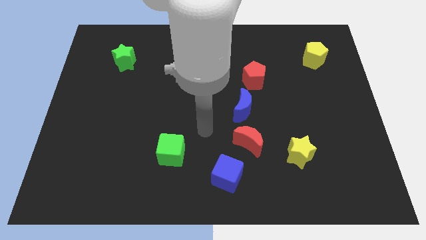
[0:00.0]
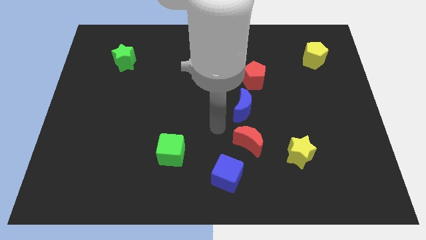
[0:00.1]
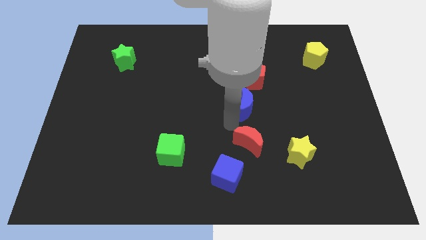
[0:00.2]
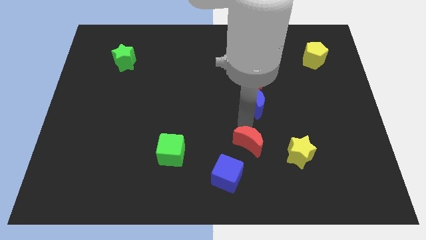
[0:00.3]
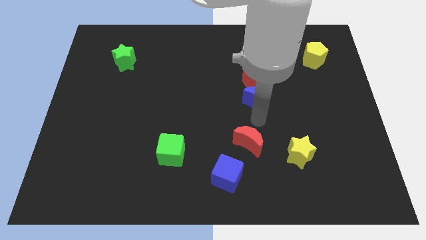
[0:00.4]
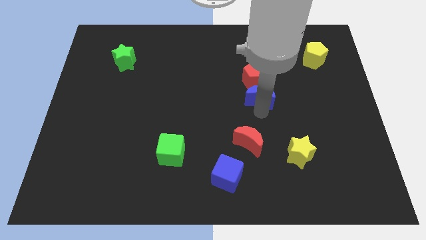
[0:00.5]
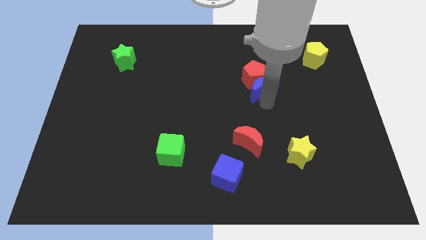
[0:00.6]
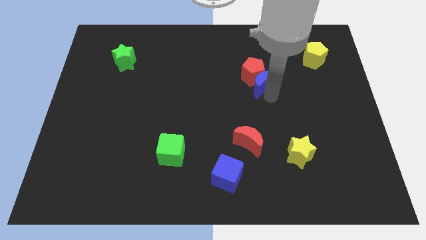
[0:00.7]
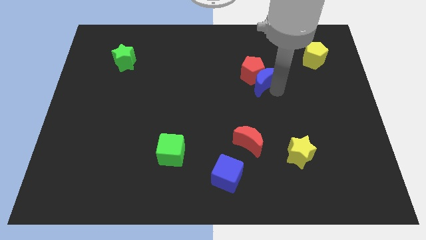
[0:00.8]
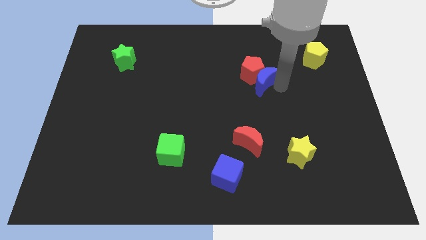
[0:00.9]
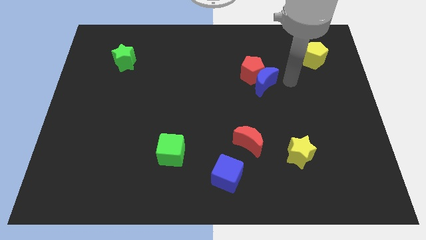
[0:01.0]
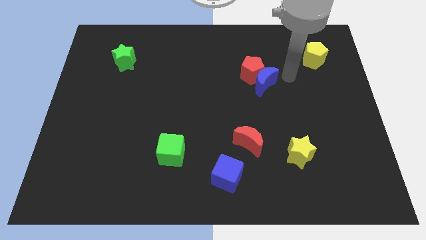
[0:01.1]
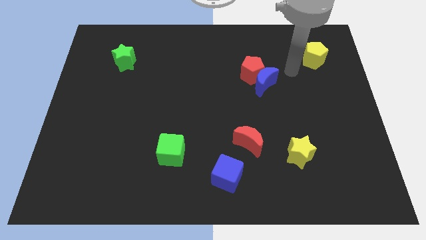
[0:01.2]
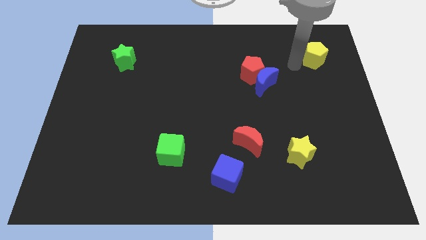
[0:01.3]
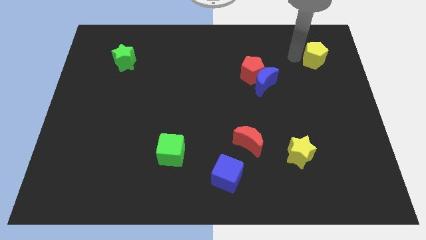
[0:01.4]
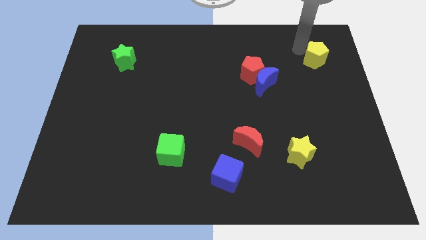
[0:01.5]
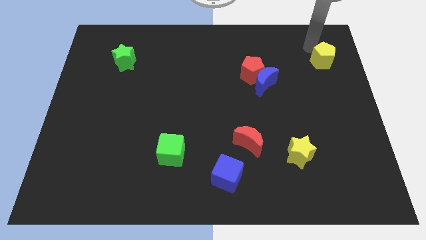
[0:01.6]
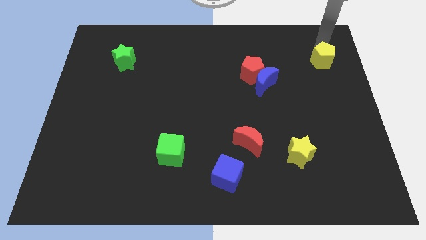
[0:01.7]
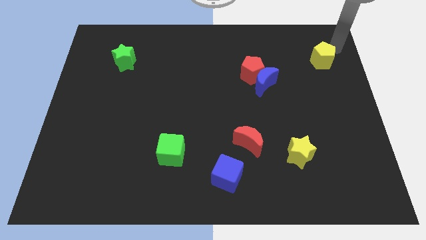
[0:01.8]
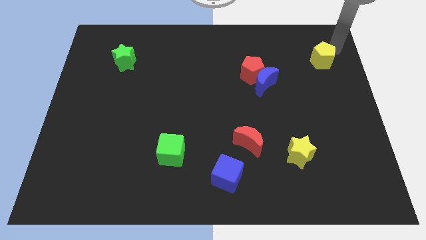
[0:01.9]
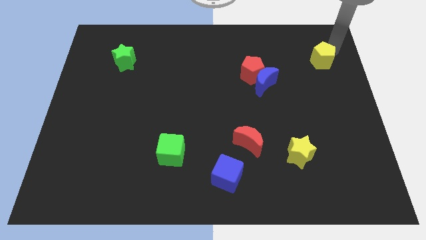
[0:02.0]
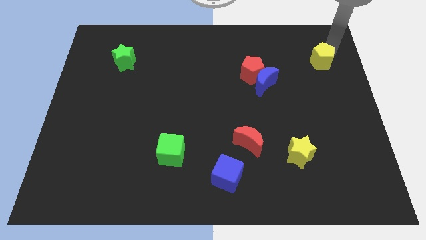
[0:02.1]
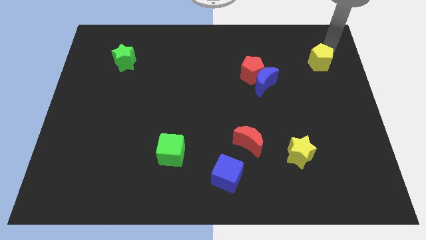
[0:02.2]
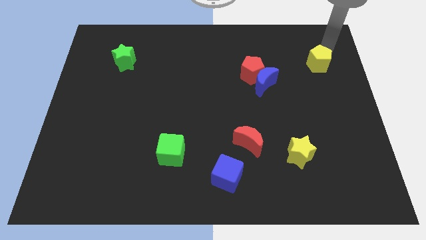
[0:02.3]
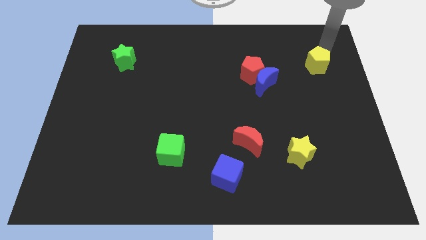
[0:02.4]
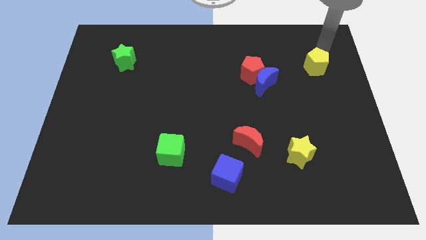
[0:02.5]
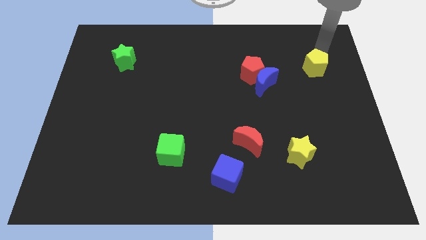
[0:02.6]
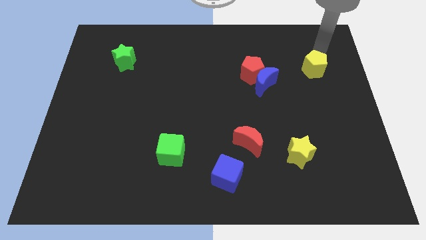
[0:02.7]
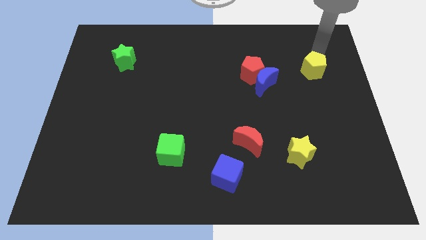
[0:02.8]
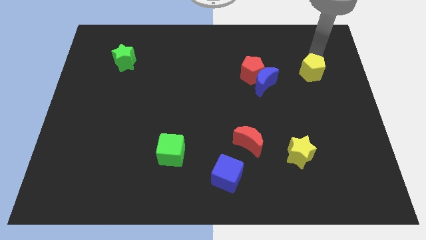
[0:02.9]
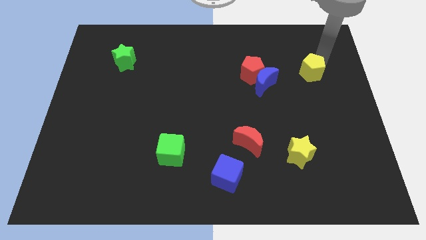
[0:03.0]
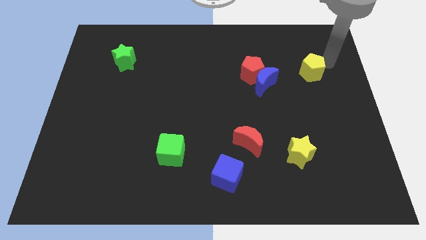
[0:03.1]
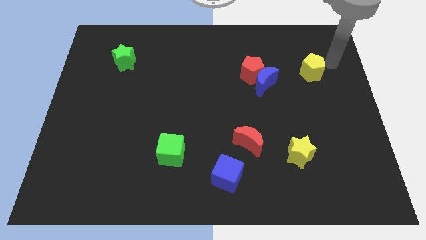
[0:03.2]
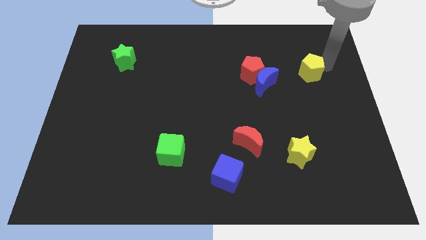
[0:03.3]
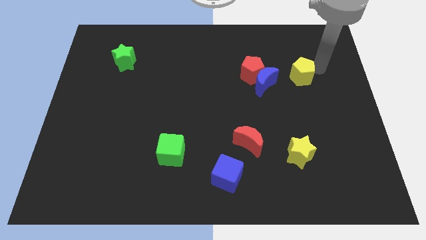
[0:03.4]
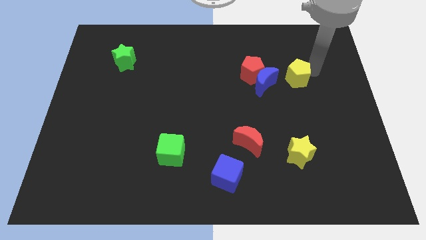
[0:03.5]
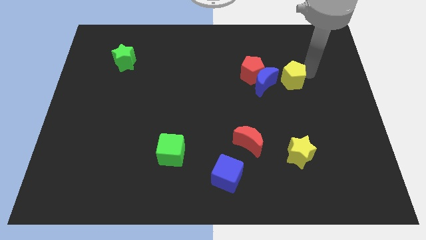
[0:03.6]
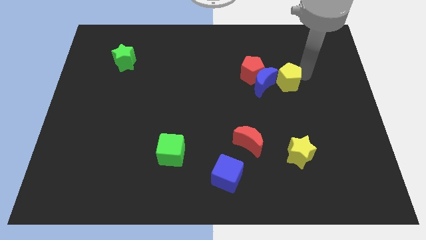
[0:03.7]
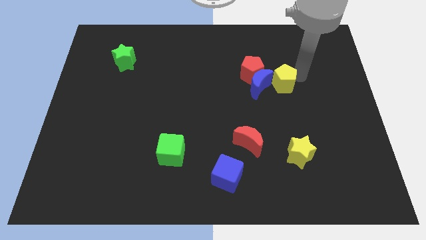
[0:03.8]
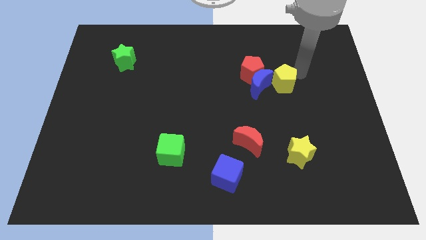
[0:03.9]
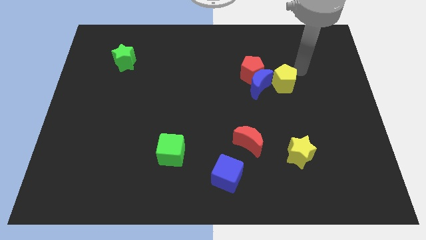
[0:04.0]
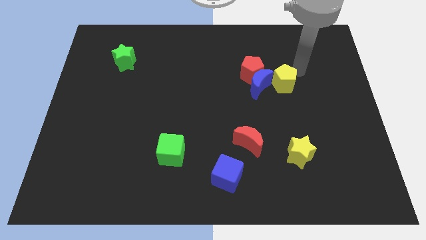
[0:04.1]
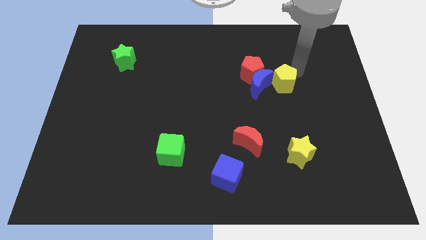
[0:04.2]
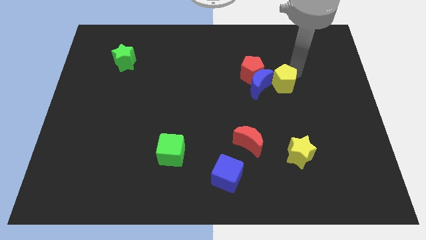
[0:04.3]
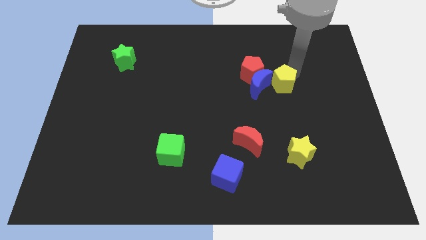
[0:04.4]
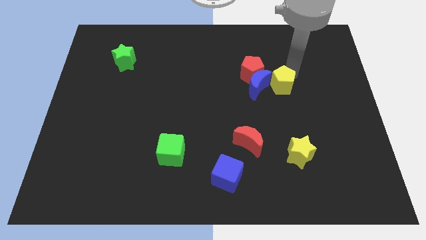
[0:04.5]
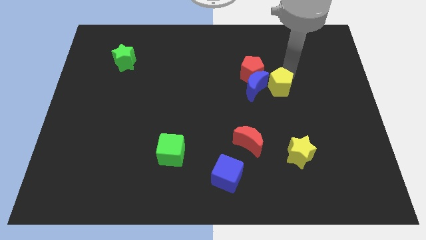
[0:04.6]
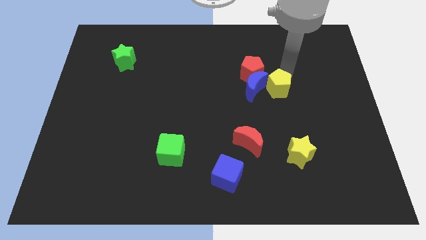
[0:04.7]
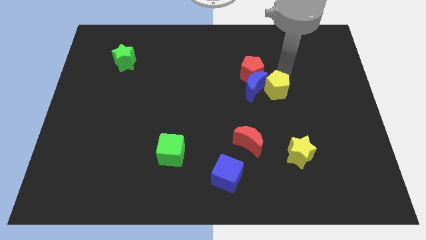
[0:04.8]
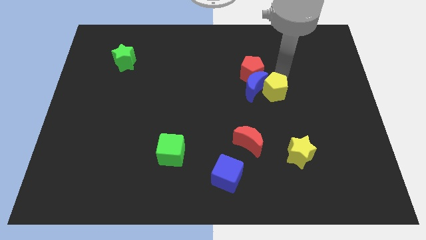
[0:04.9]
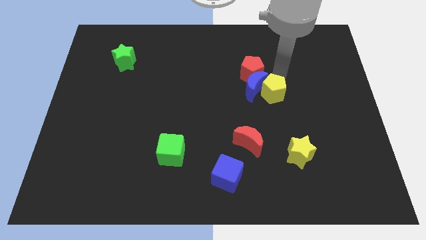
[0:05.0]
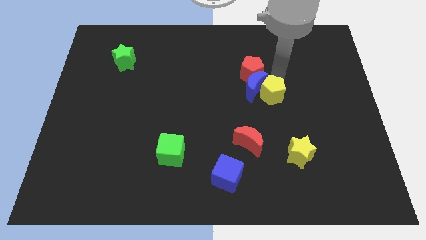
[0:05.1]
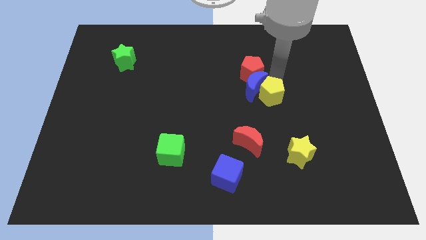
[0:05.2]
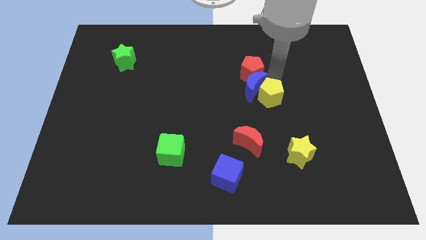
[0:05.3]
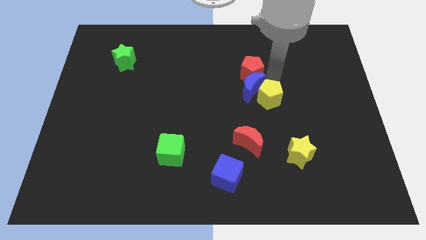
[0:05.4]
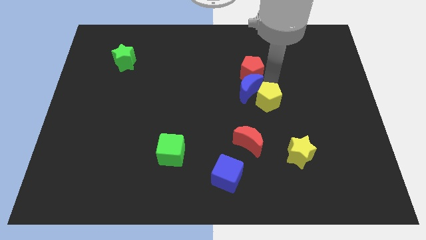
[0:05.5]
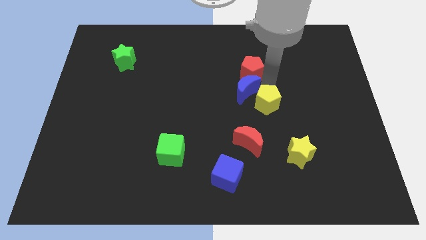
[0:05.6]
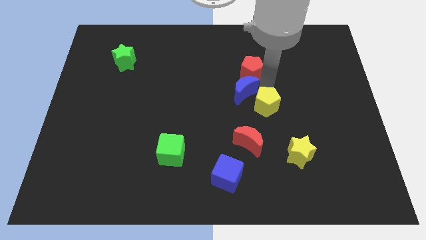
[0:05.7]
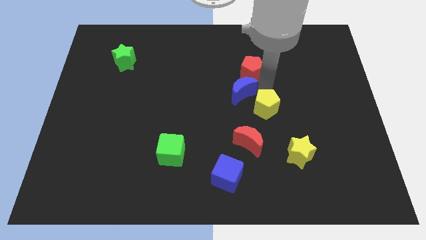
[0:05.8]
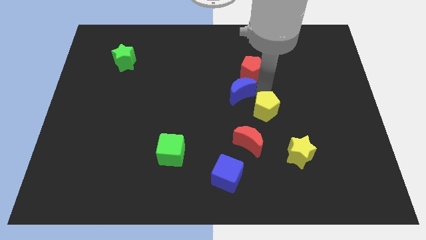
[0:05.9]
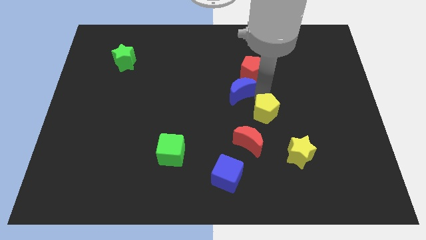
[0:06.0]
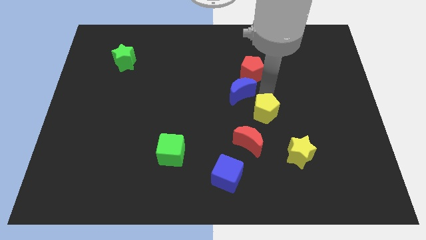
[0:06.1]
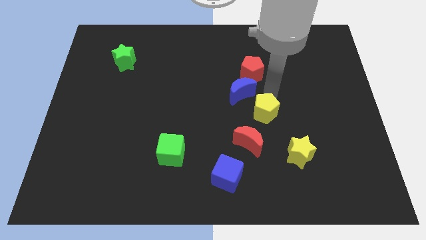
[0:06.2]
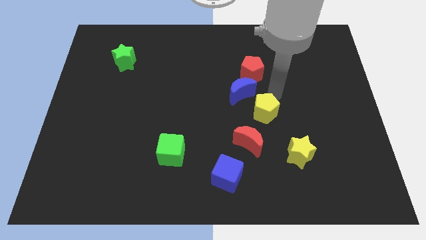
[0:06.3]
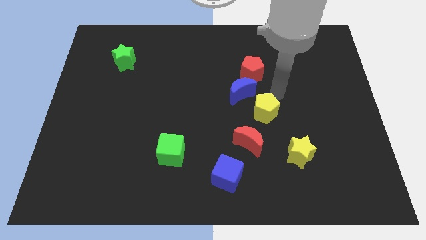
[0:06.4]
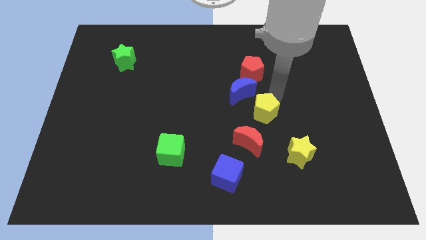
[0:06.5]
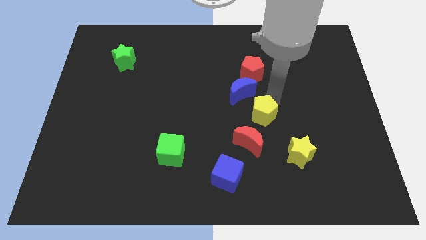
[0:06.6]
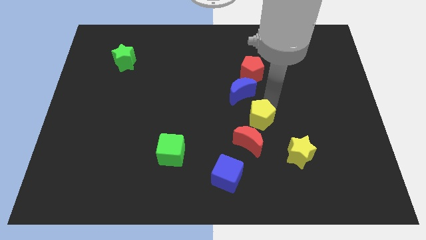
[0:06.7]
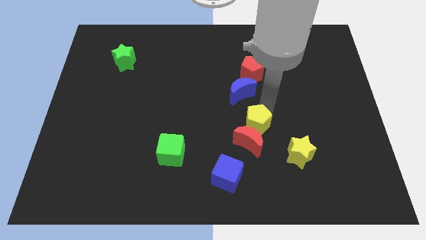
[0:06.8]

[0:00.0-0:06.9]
put the yellow pentagon next to the red moon
